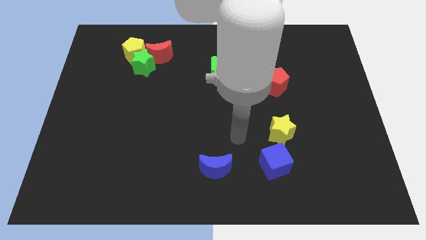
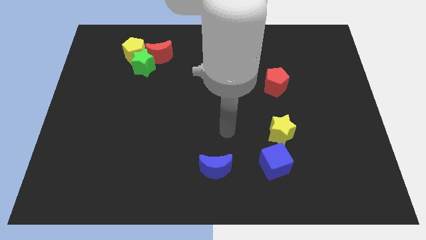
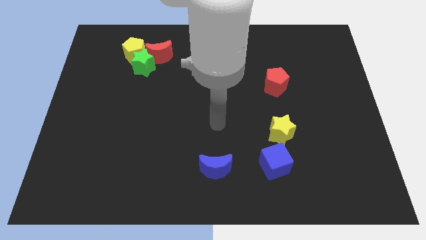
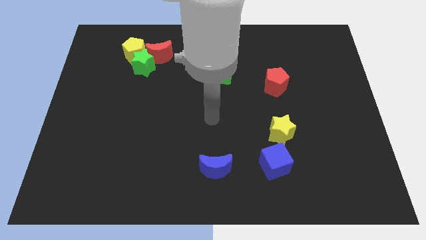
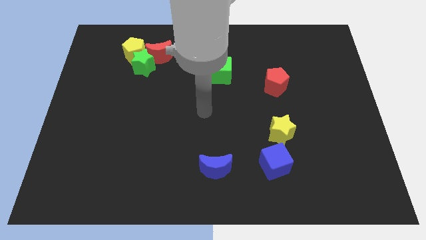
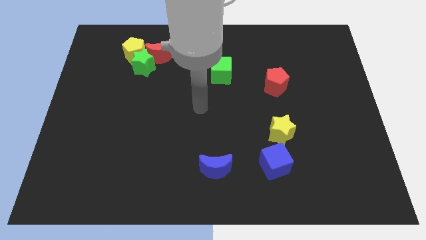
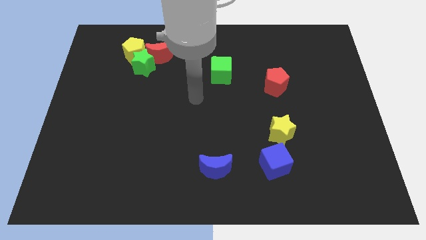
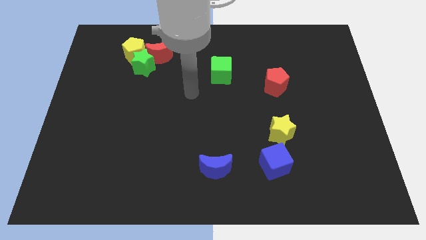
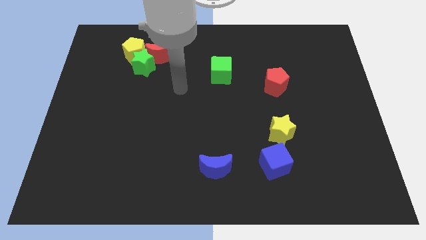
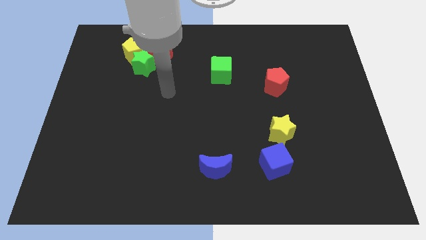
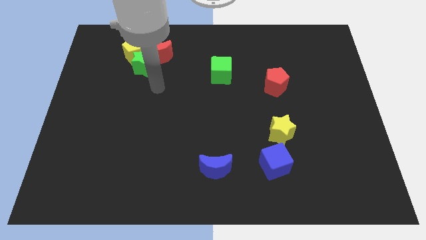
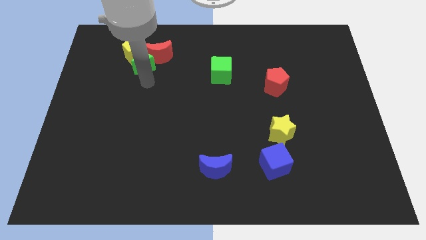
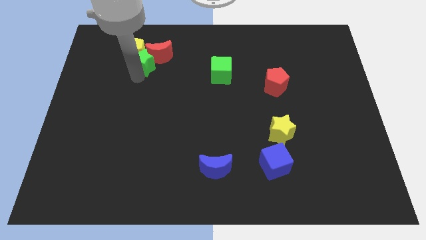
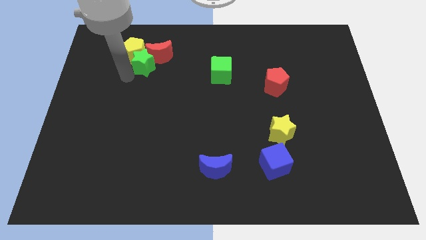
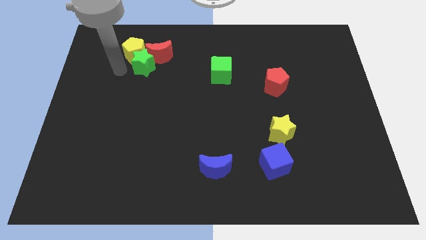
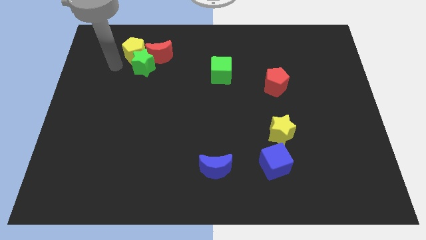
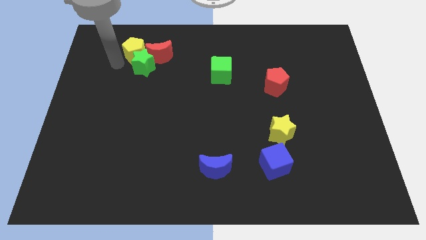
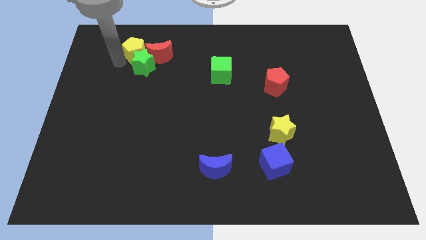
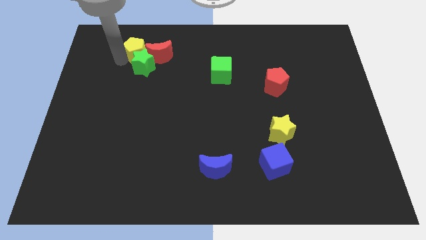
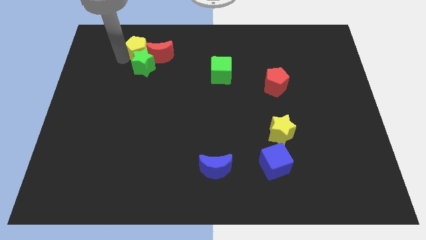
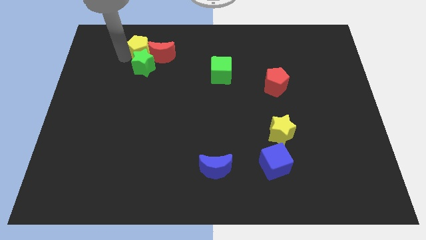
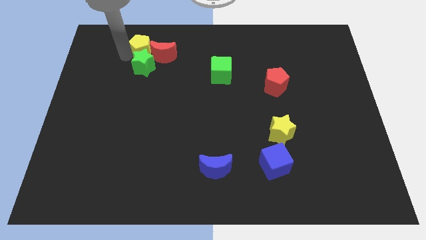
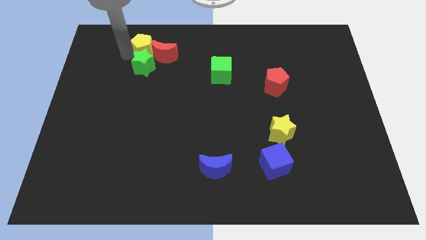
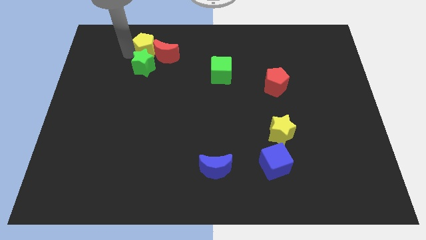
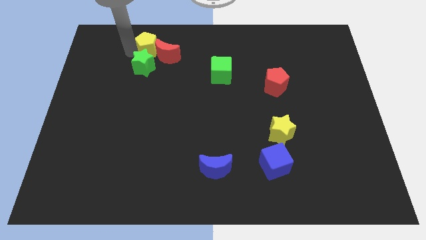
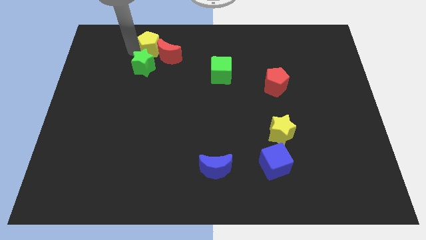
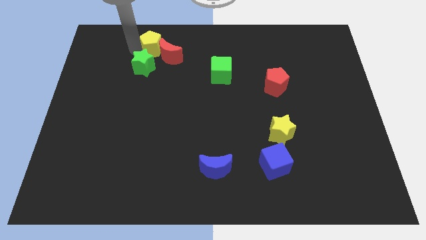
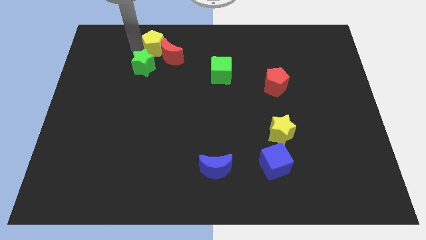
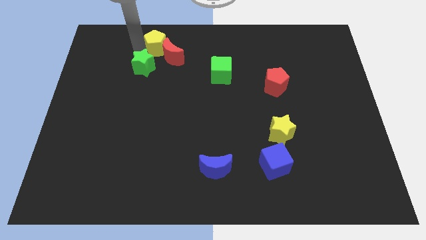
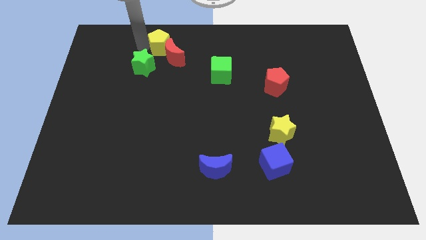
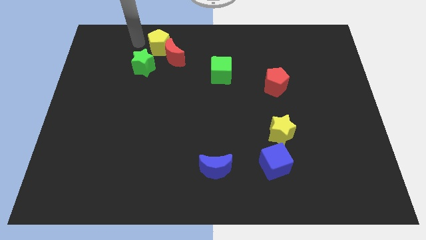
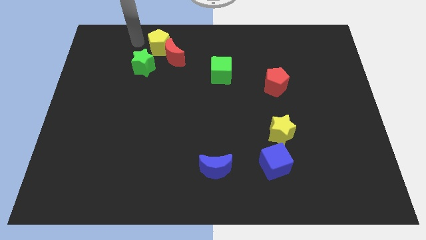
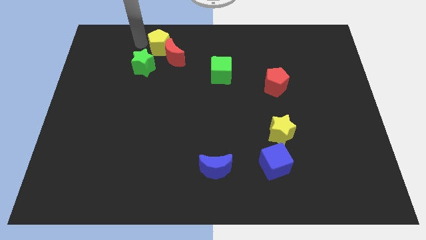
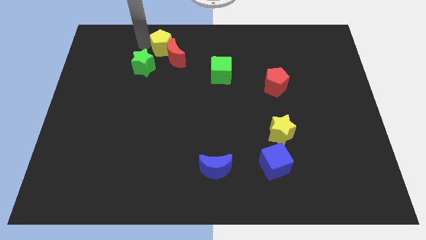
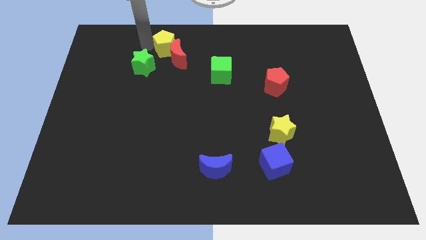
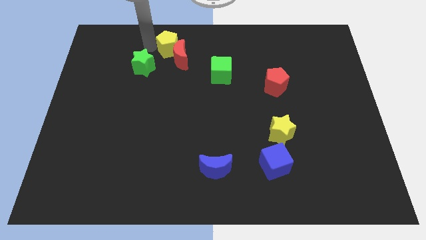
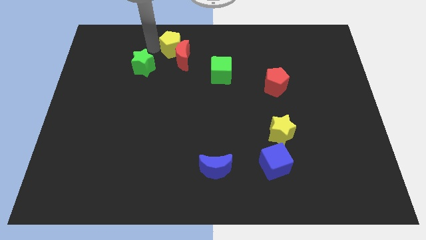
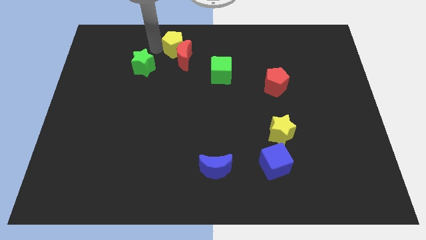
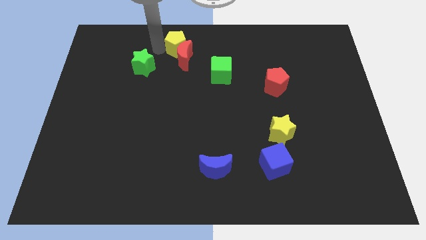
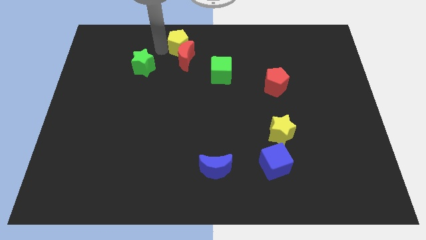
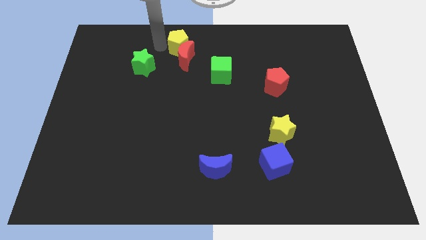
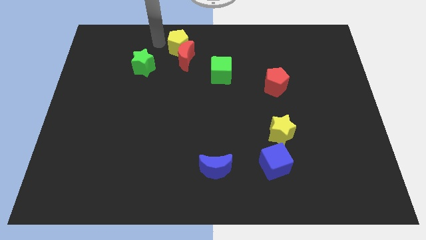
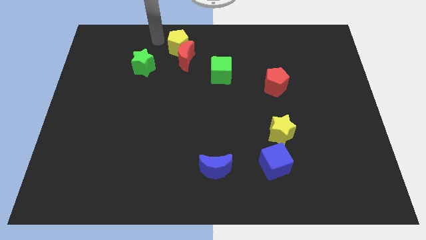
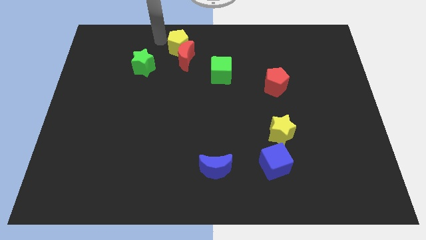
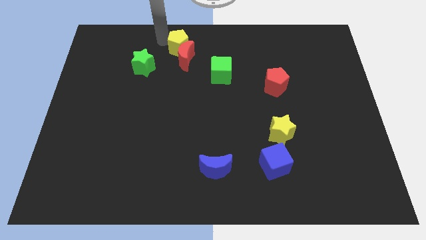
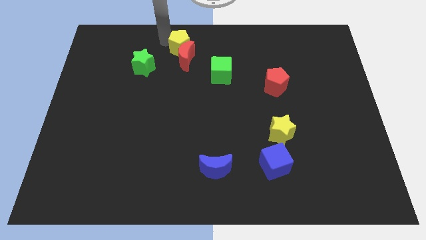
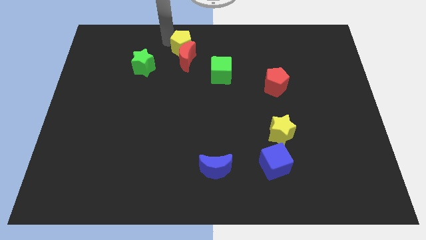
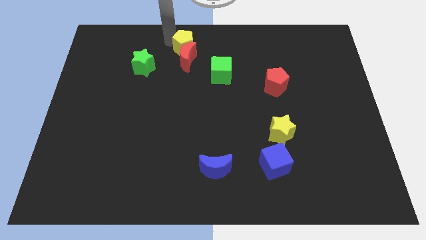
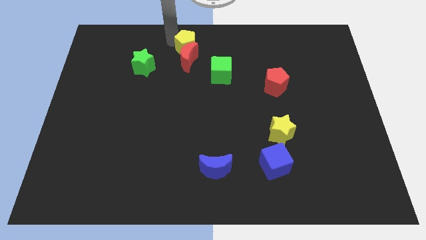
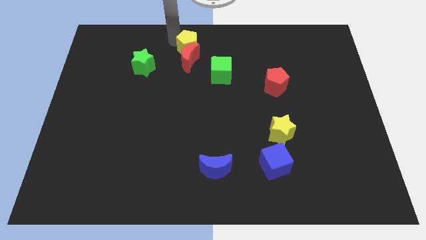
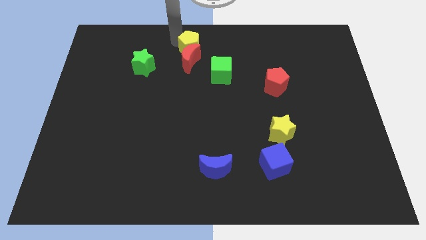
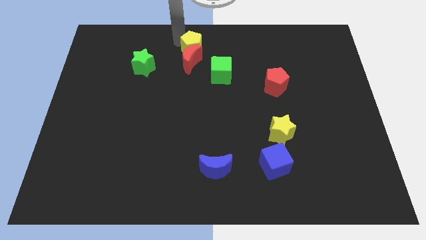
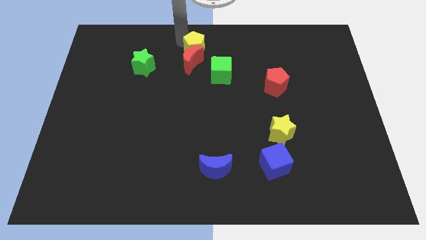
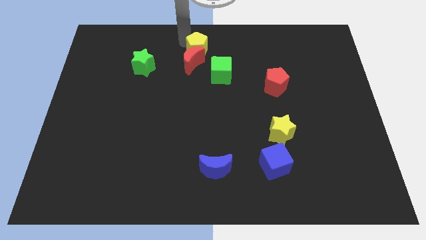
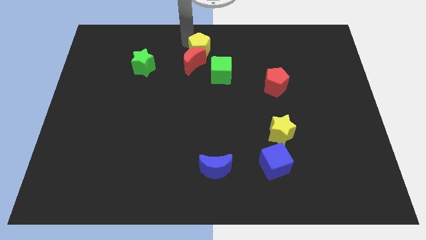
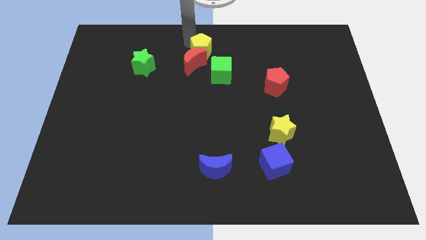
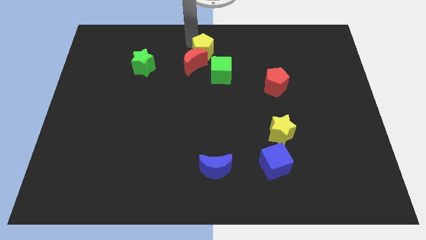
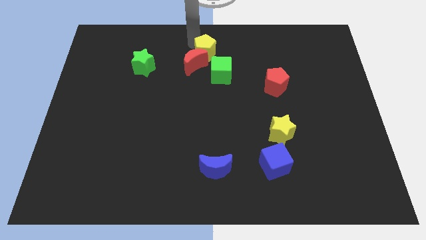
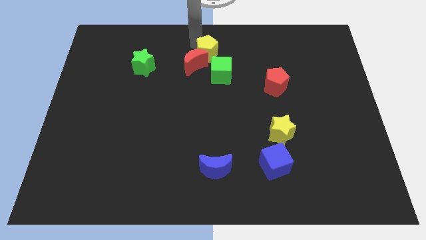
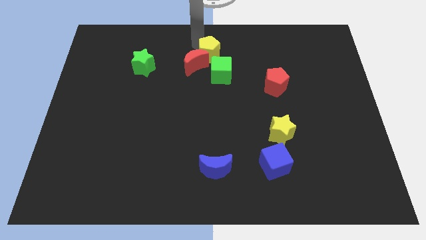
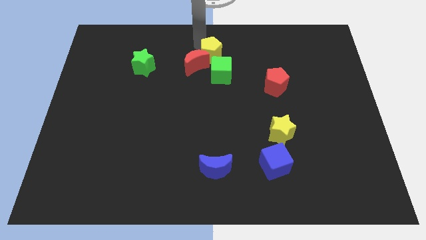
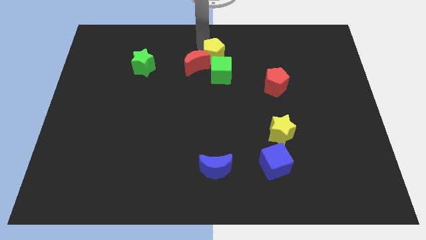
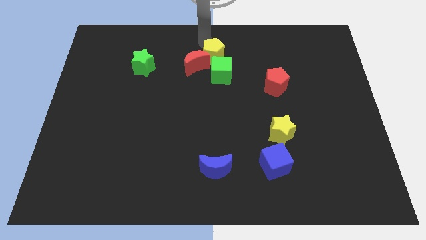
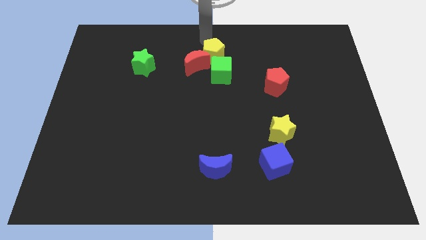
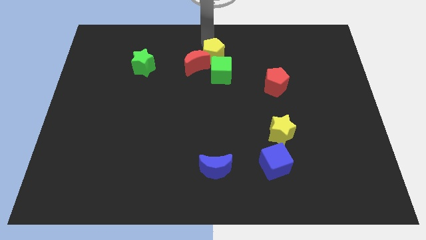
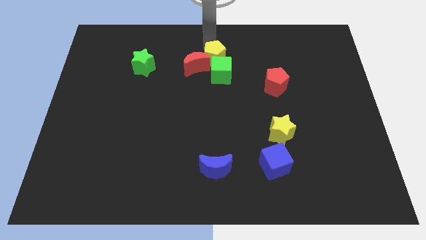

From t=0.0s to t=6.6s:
put the yellow pentagon to the green cube

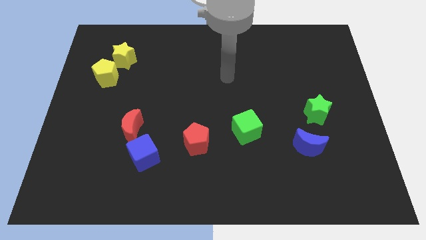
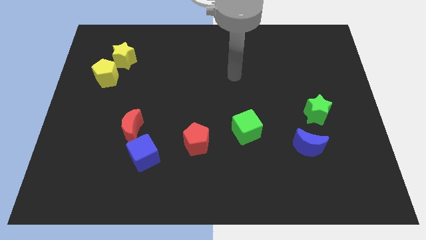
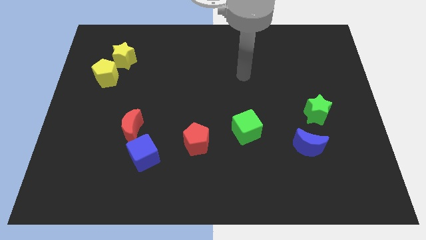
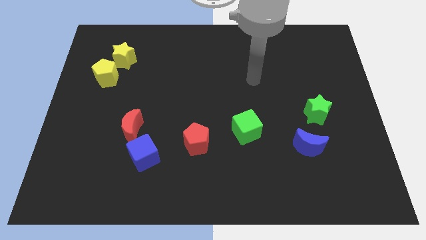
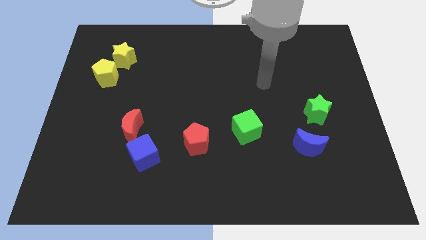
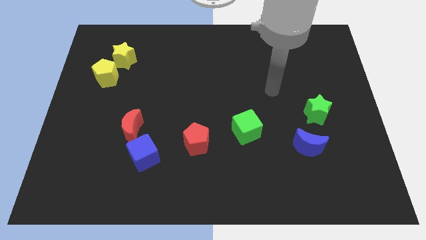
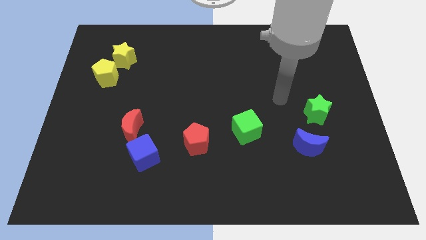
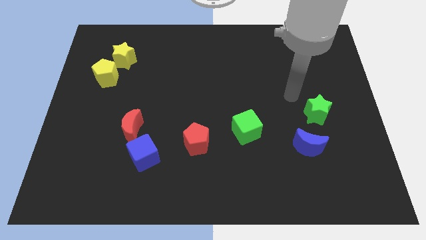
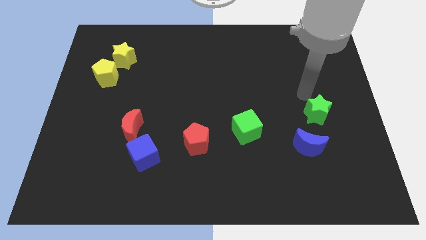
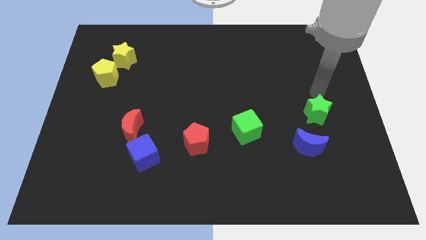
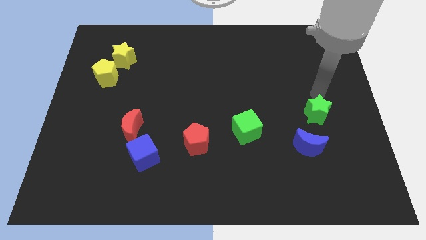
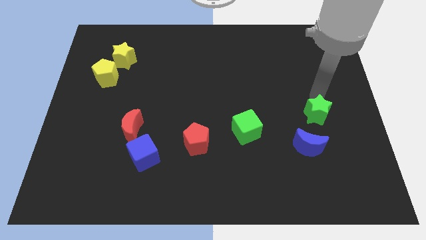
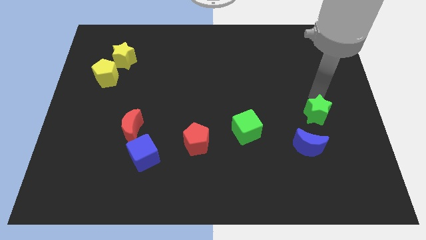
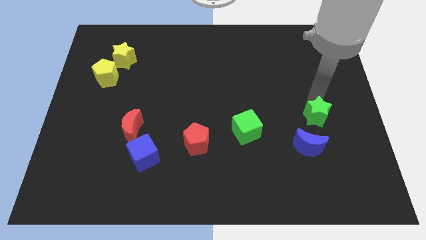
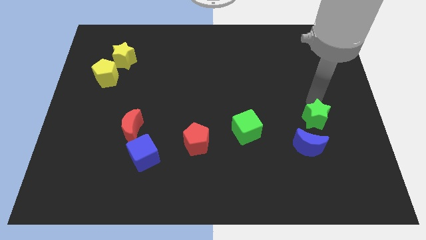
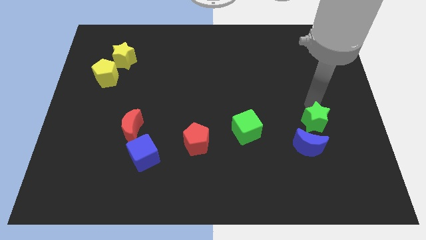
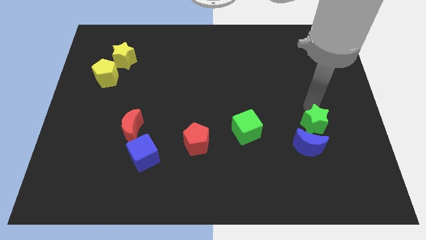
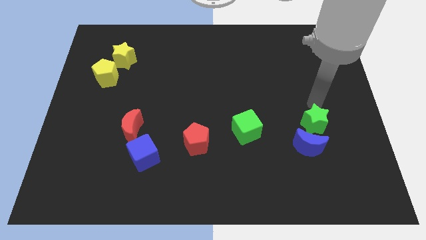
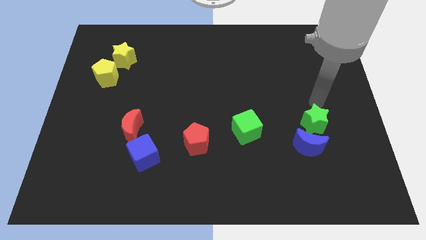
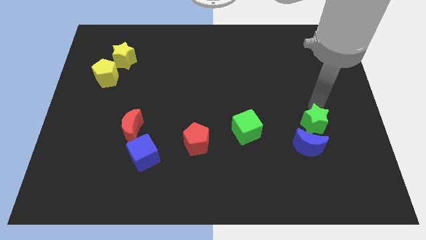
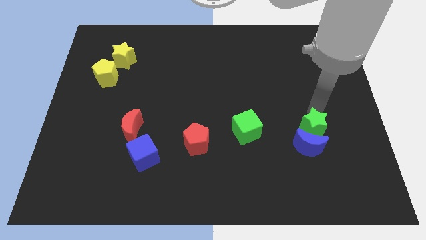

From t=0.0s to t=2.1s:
slide the green star to the blue moon
